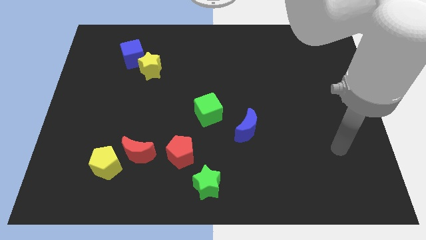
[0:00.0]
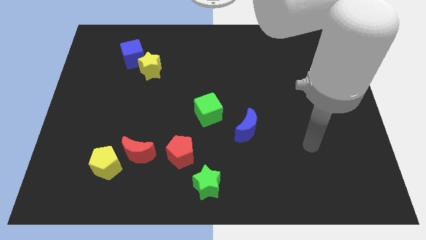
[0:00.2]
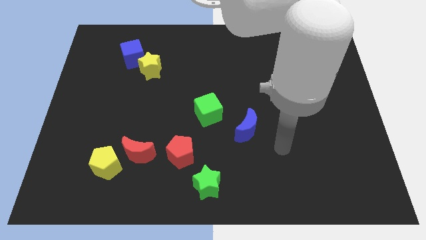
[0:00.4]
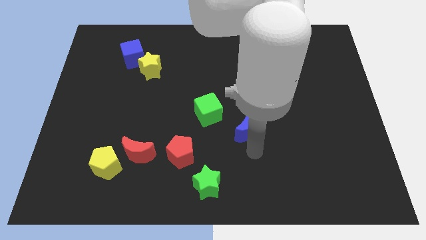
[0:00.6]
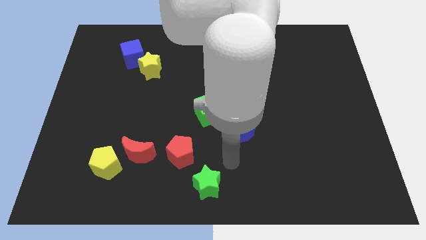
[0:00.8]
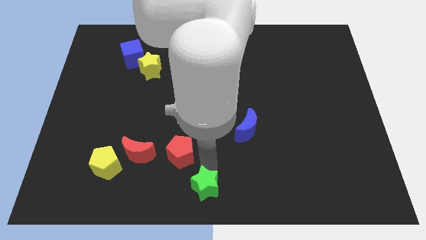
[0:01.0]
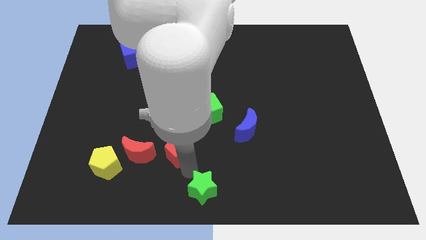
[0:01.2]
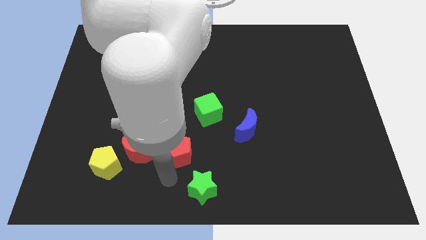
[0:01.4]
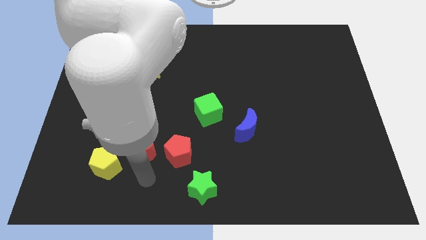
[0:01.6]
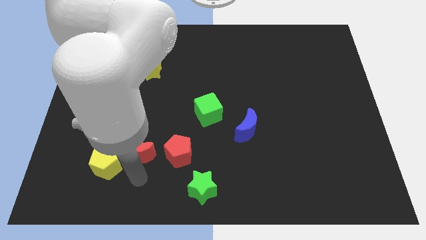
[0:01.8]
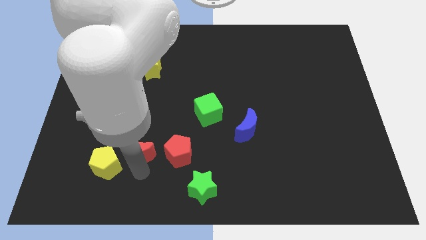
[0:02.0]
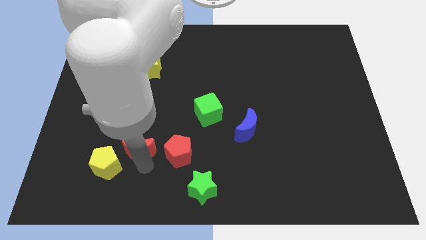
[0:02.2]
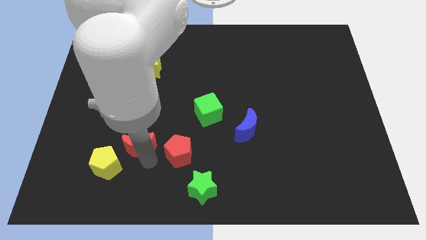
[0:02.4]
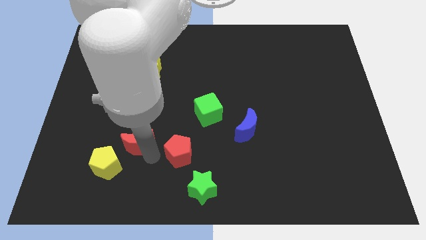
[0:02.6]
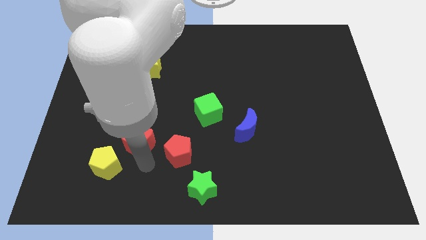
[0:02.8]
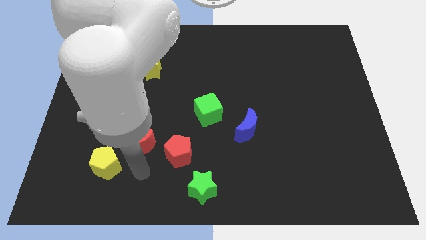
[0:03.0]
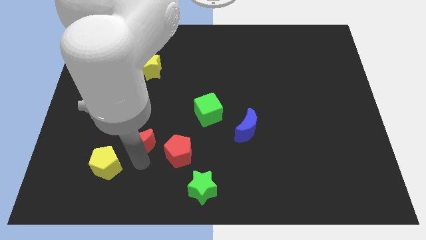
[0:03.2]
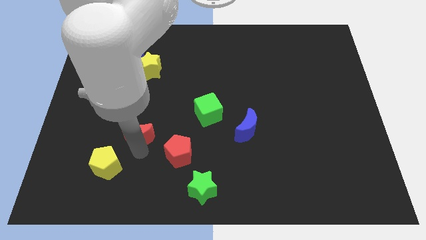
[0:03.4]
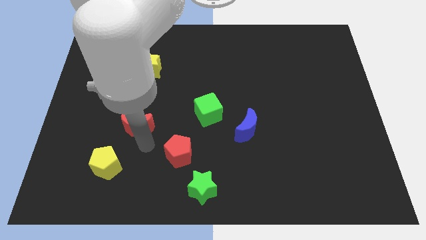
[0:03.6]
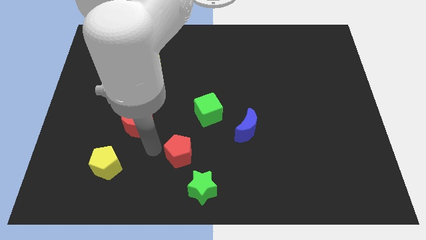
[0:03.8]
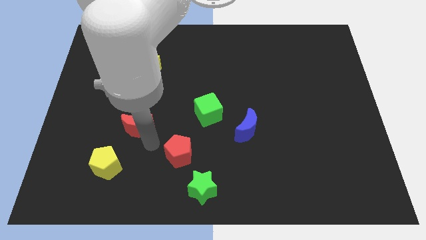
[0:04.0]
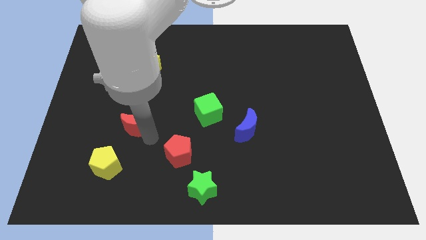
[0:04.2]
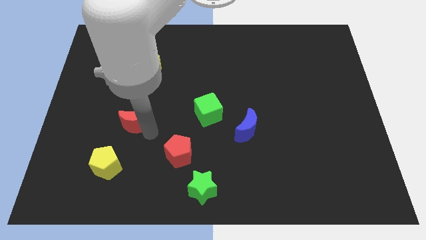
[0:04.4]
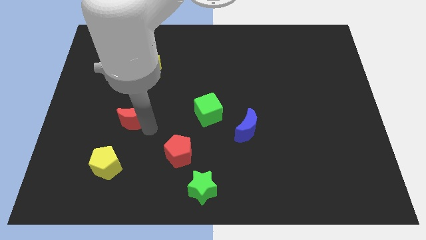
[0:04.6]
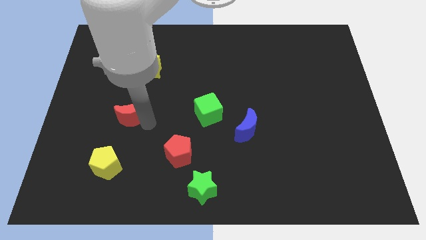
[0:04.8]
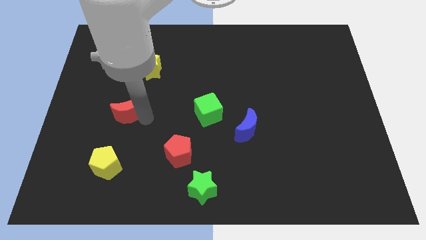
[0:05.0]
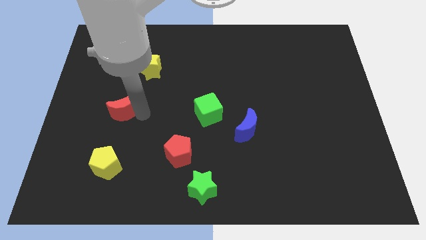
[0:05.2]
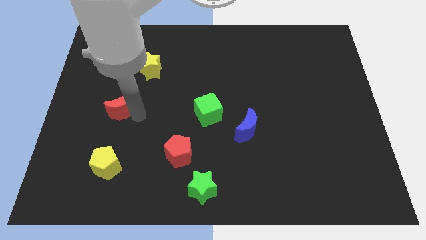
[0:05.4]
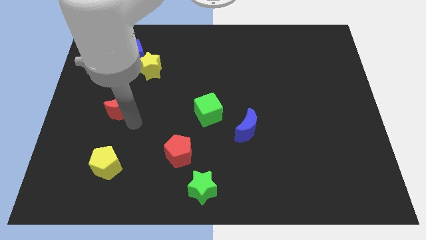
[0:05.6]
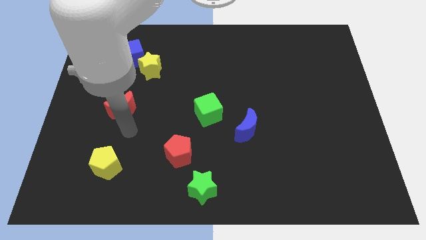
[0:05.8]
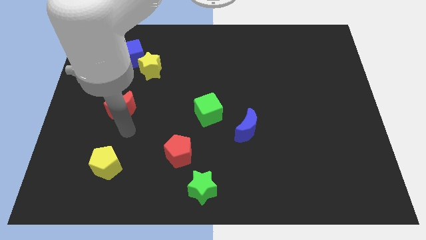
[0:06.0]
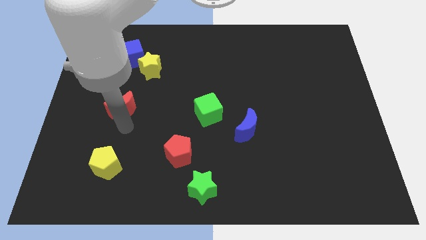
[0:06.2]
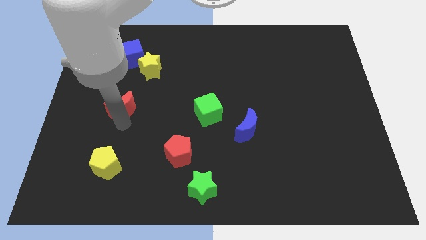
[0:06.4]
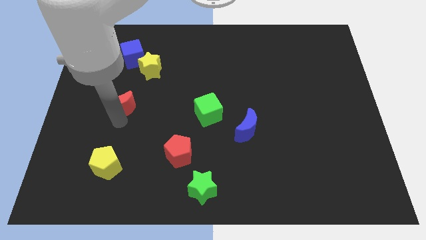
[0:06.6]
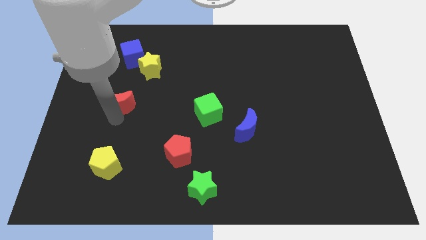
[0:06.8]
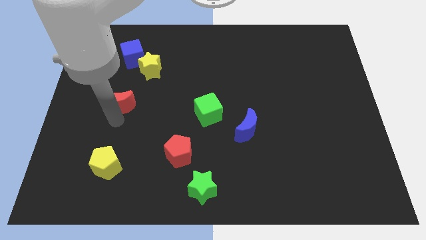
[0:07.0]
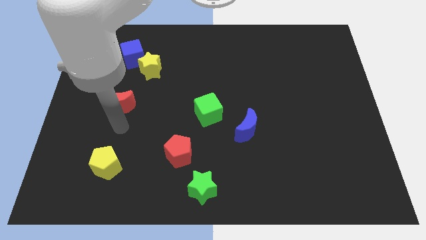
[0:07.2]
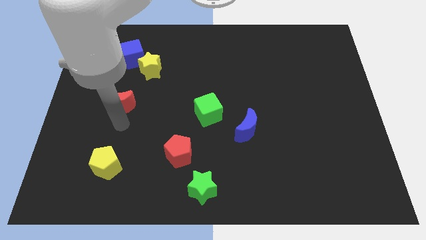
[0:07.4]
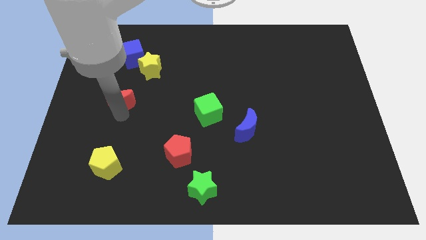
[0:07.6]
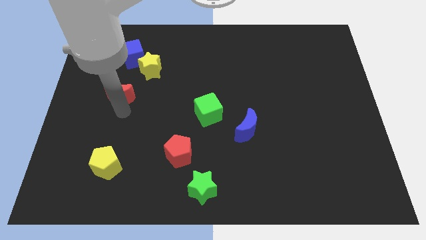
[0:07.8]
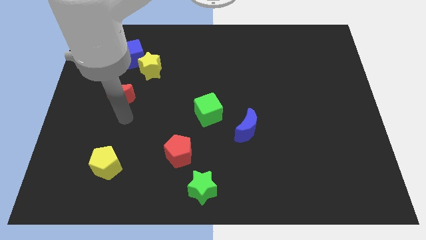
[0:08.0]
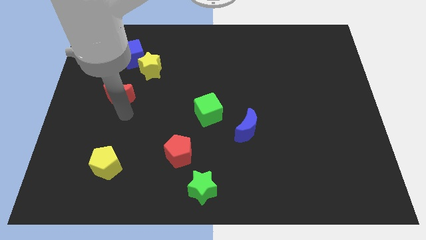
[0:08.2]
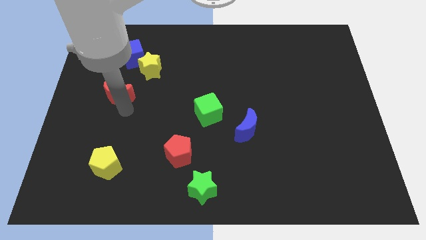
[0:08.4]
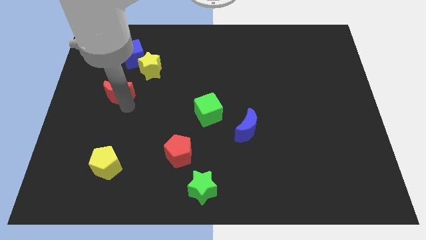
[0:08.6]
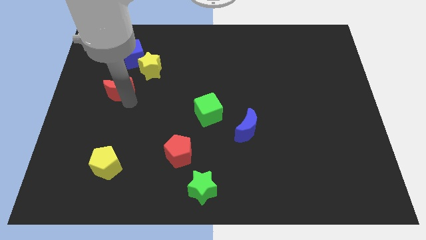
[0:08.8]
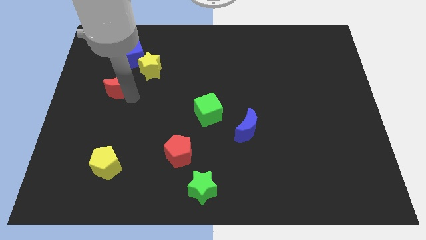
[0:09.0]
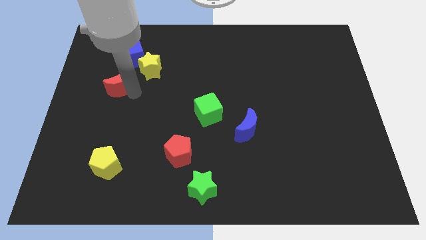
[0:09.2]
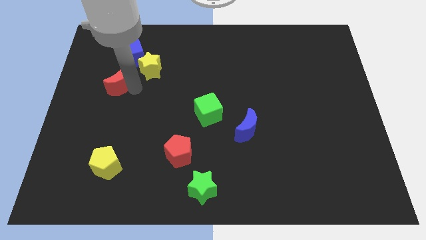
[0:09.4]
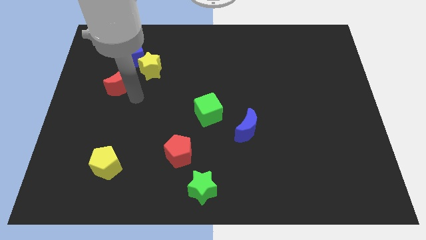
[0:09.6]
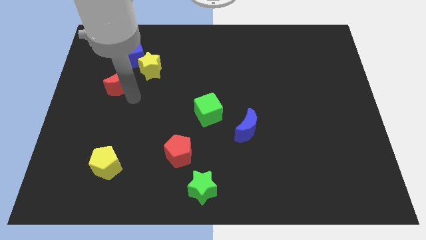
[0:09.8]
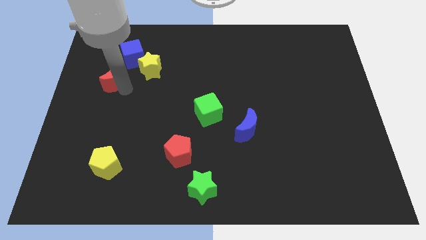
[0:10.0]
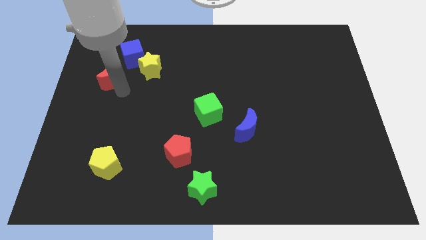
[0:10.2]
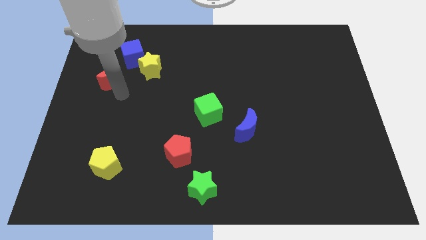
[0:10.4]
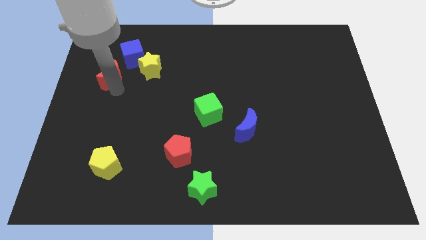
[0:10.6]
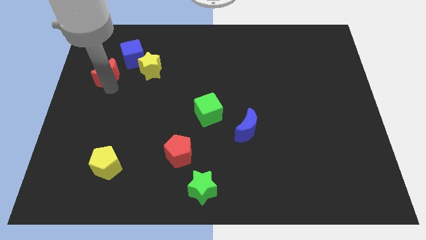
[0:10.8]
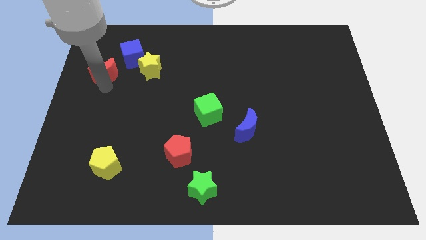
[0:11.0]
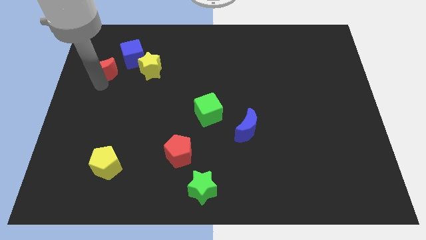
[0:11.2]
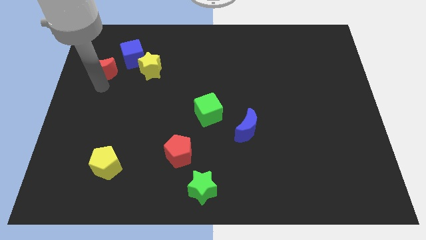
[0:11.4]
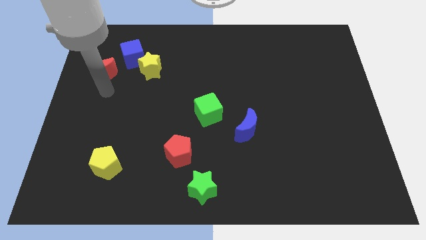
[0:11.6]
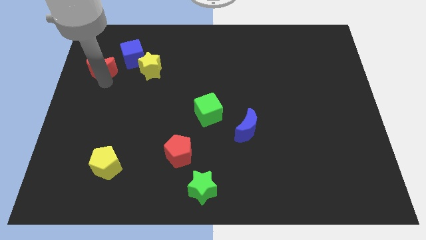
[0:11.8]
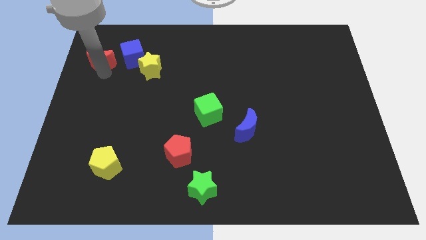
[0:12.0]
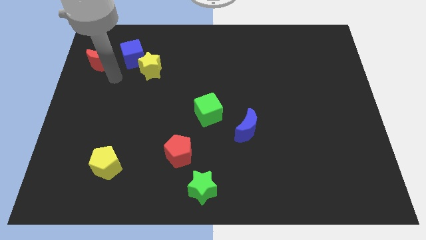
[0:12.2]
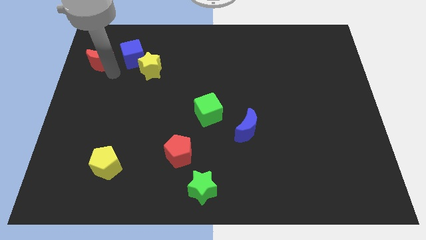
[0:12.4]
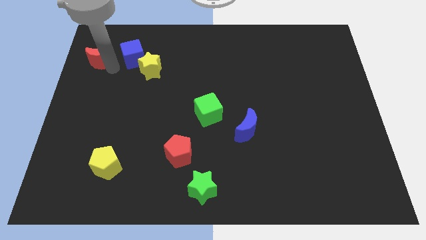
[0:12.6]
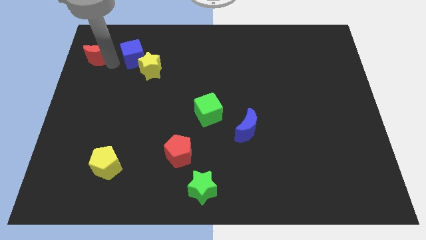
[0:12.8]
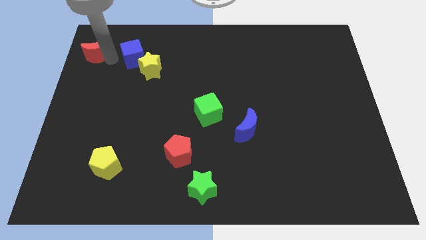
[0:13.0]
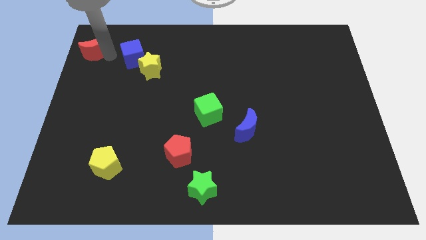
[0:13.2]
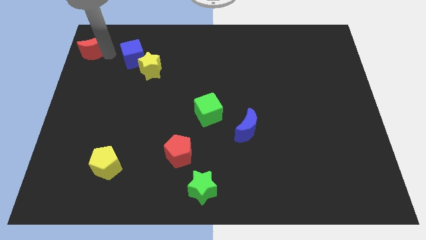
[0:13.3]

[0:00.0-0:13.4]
push the red moon to the top left of the board

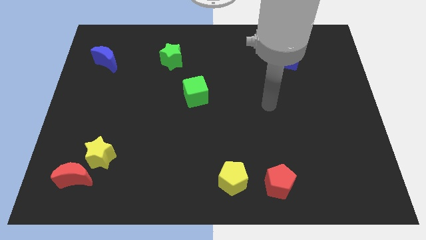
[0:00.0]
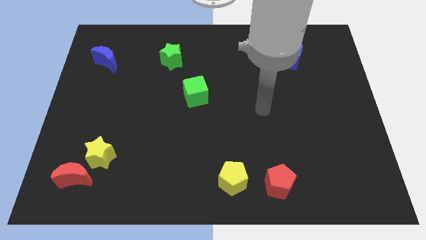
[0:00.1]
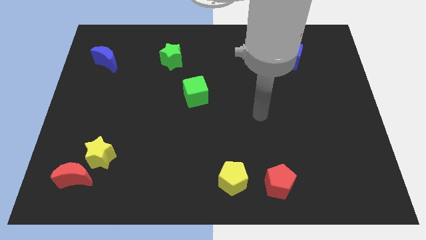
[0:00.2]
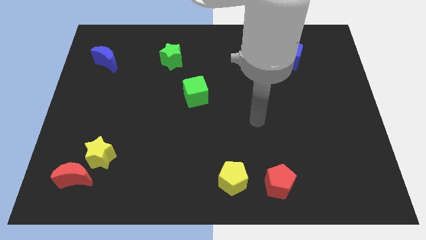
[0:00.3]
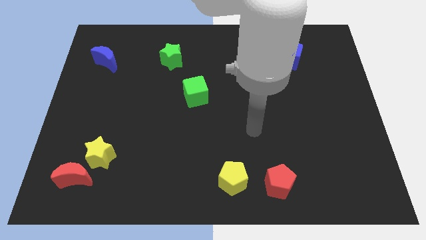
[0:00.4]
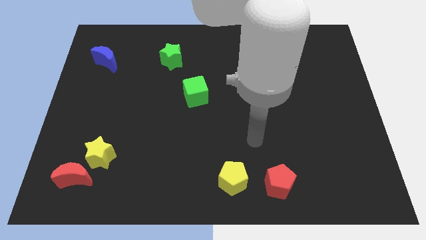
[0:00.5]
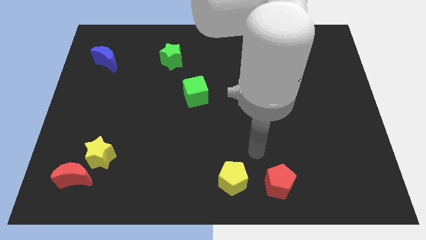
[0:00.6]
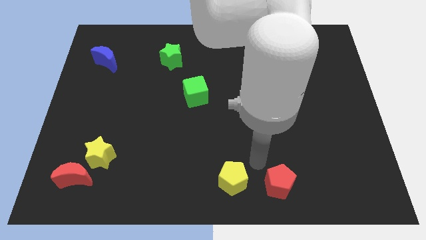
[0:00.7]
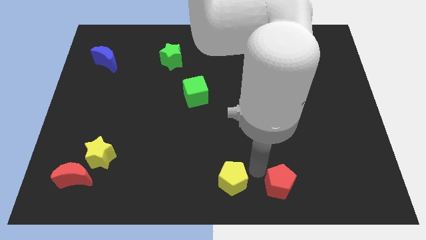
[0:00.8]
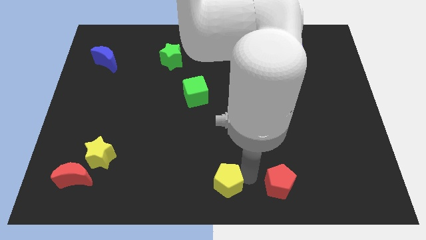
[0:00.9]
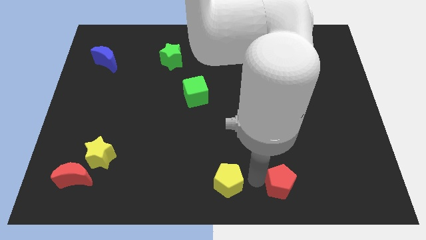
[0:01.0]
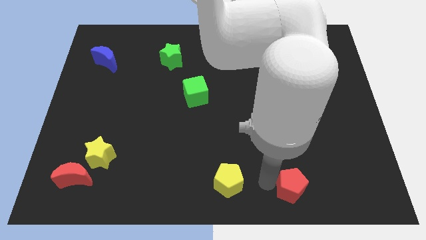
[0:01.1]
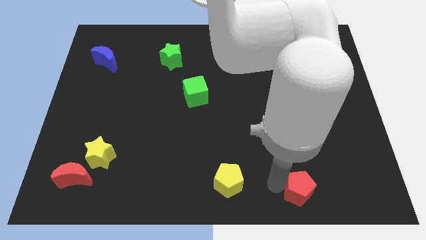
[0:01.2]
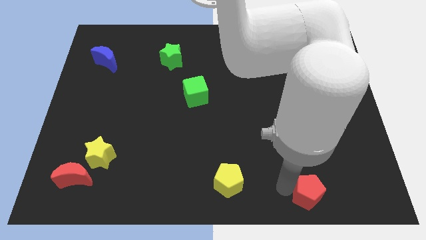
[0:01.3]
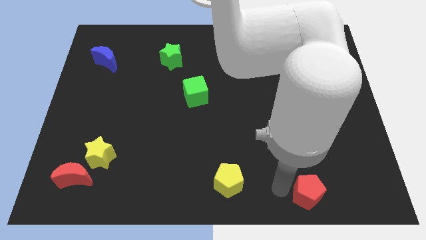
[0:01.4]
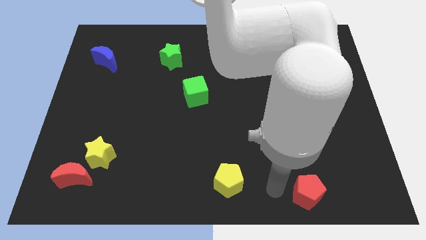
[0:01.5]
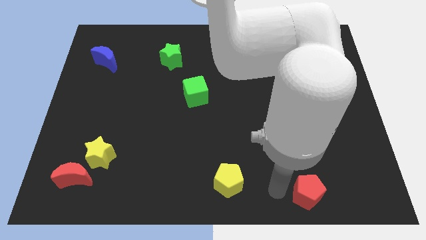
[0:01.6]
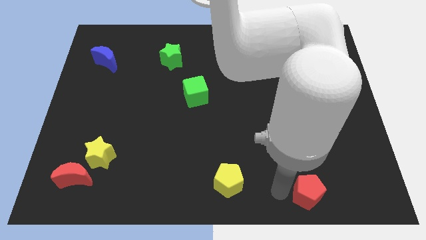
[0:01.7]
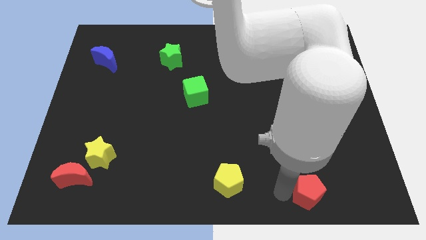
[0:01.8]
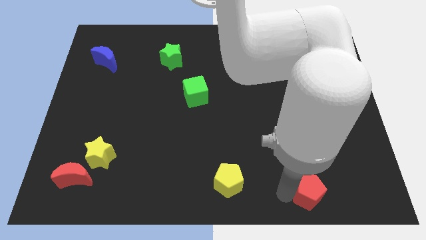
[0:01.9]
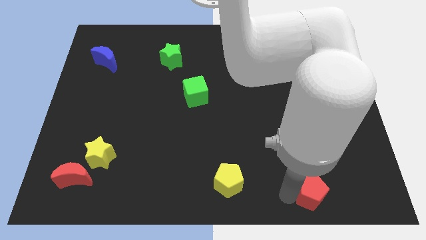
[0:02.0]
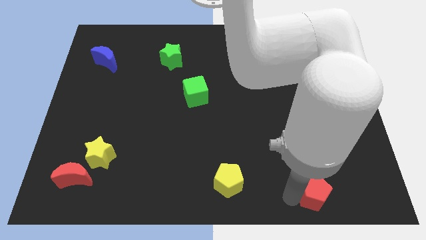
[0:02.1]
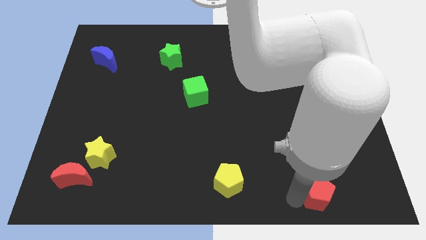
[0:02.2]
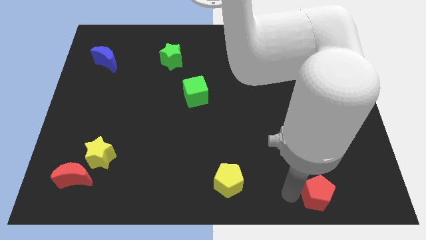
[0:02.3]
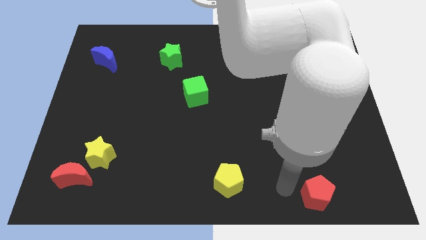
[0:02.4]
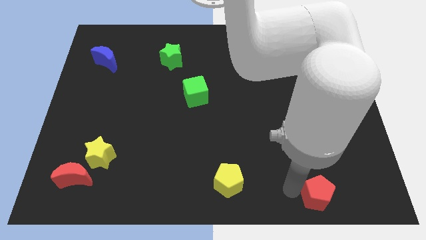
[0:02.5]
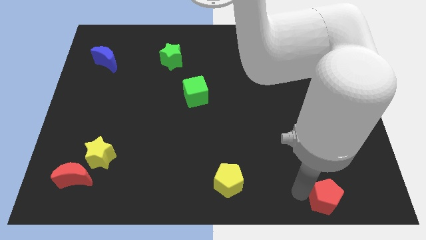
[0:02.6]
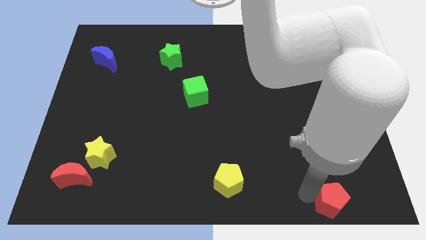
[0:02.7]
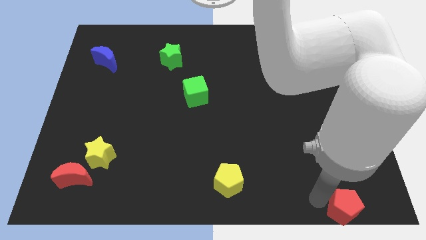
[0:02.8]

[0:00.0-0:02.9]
move the red pentagon to the bottom right
